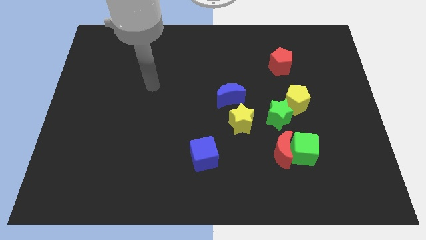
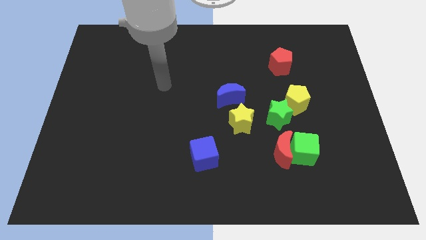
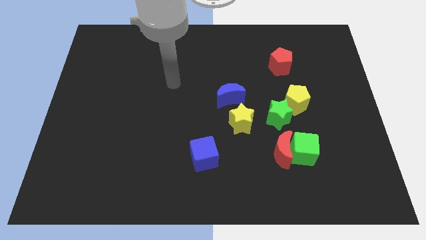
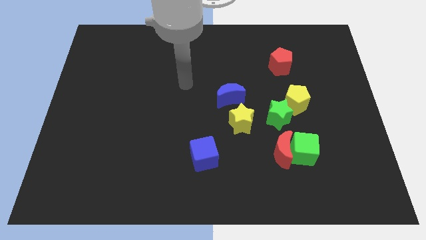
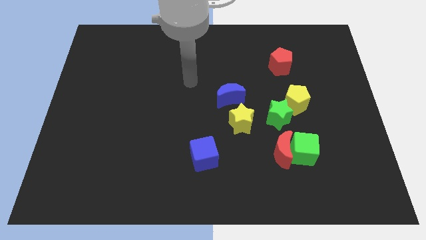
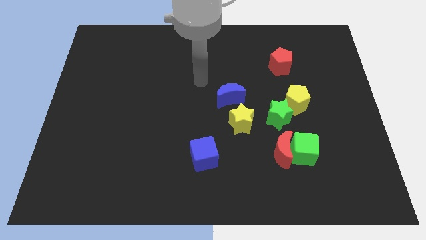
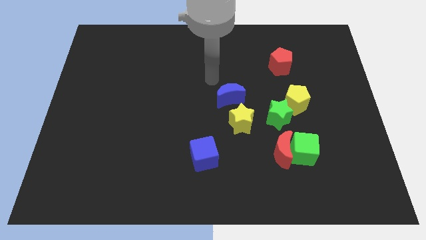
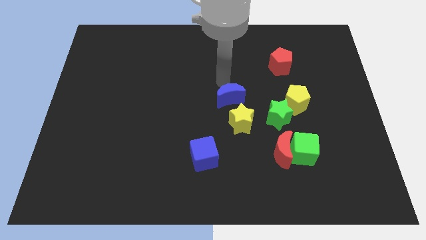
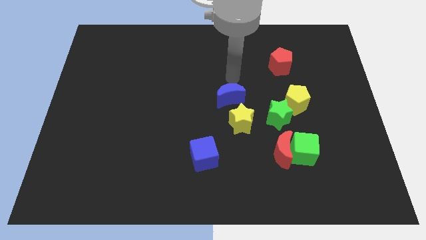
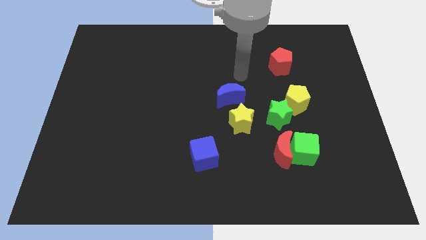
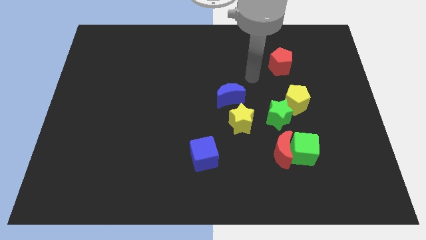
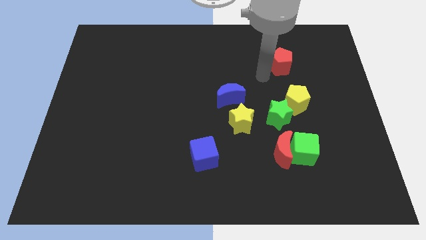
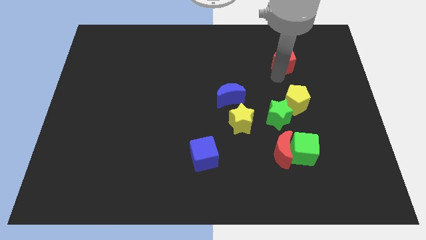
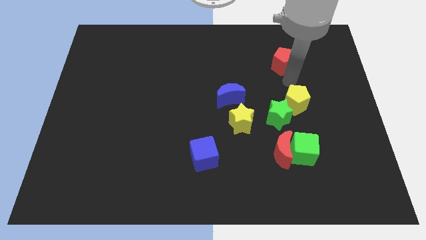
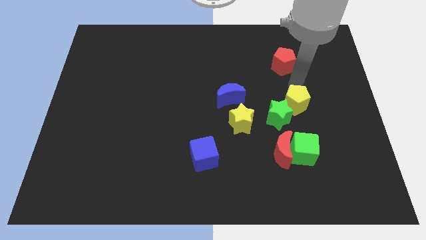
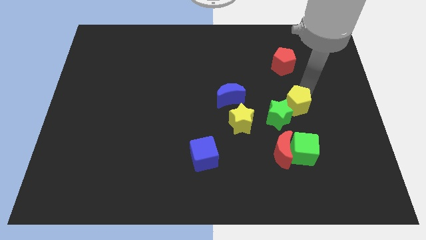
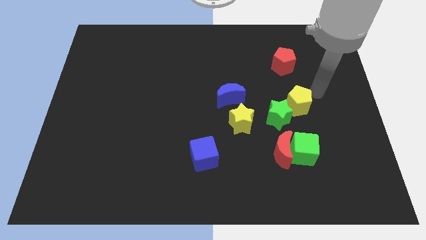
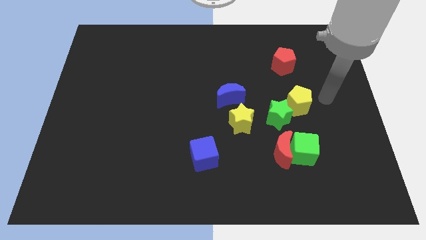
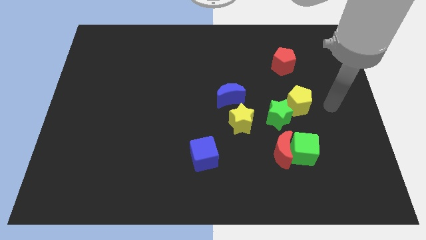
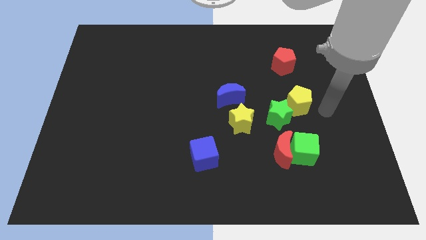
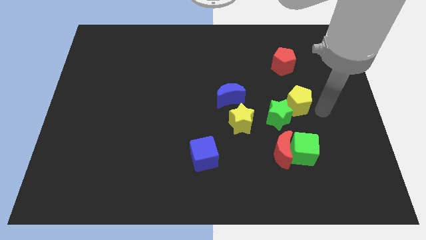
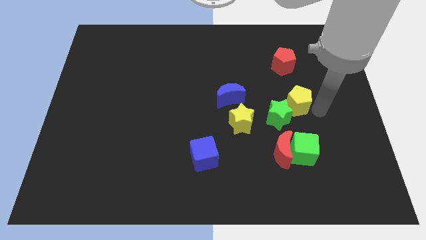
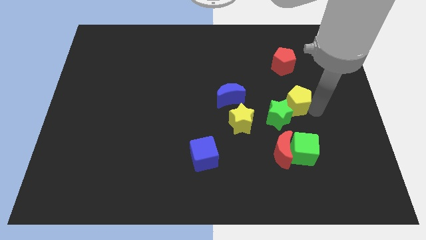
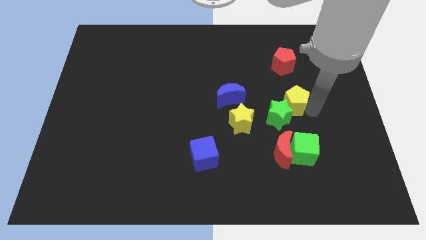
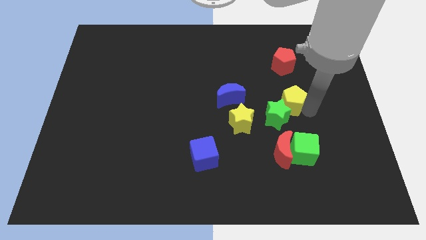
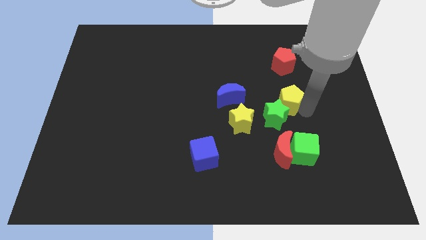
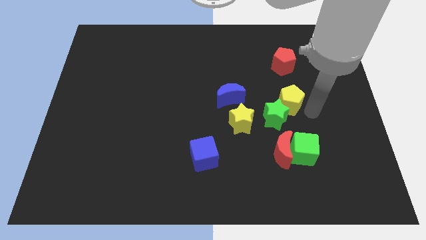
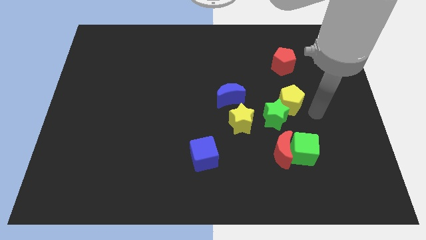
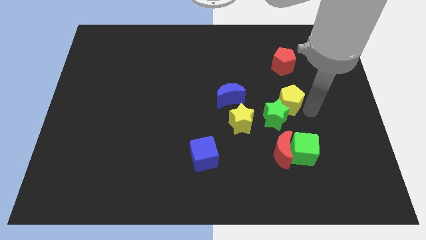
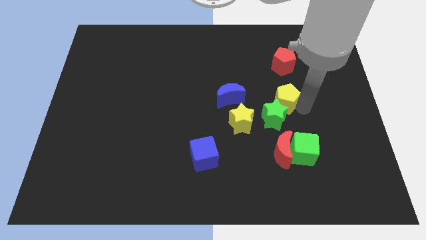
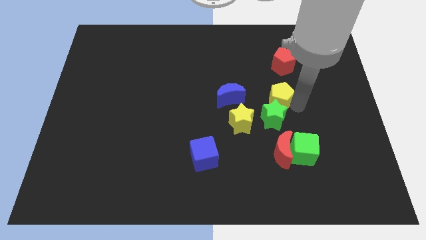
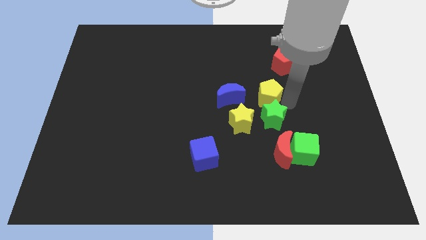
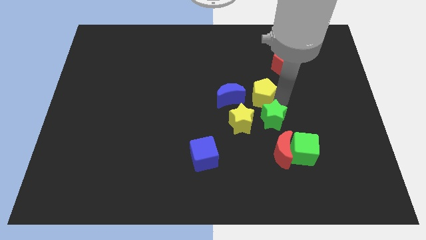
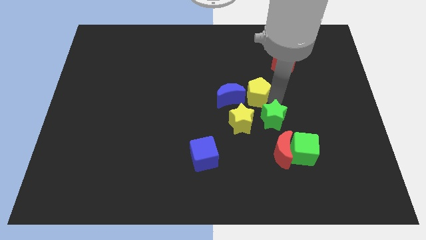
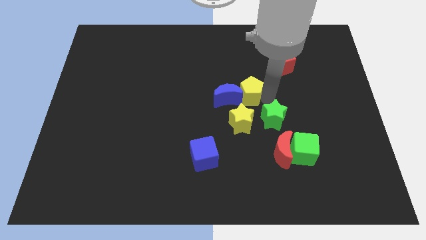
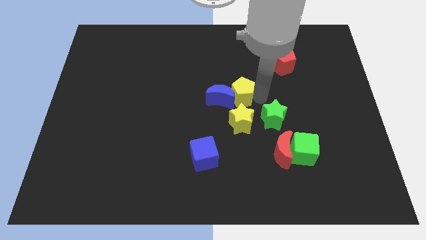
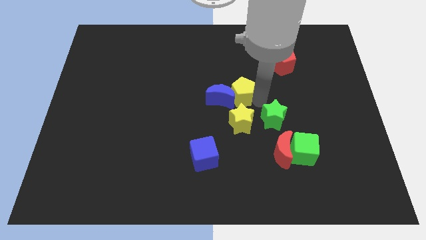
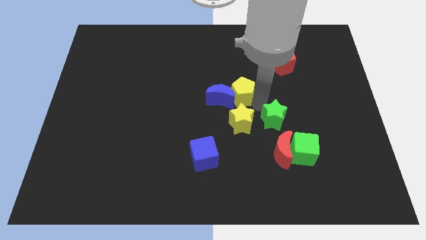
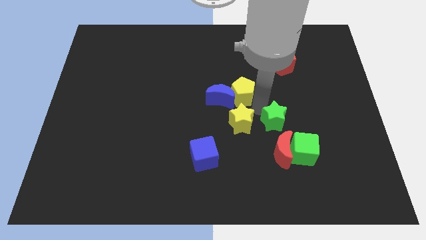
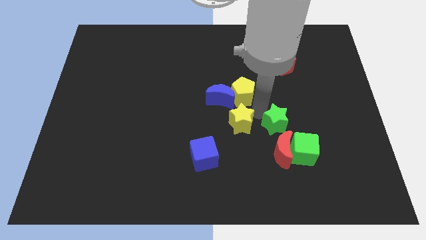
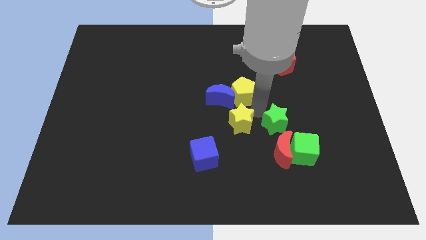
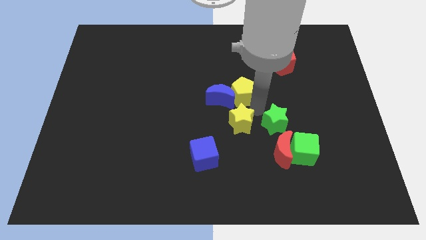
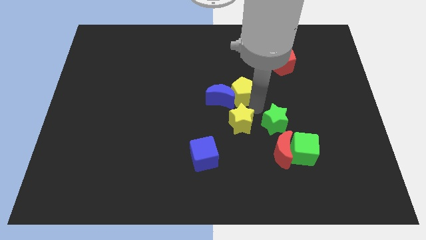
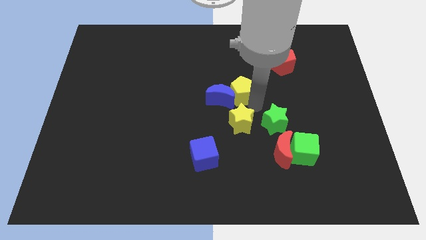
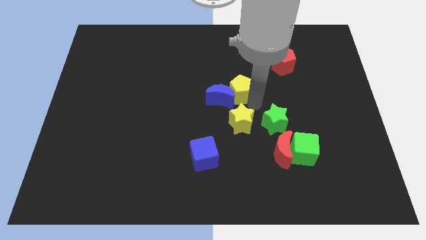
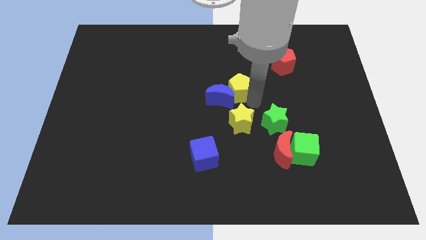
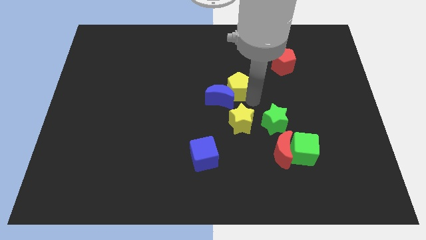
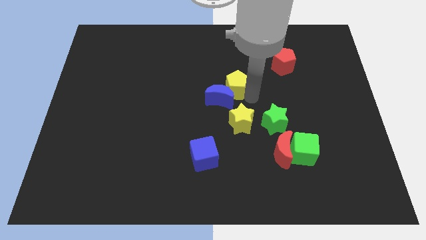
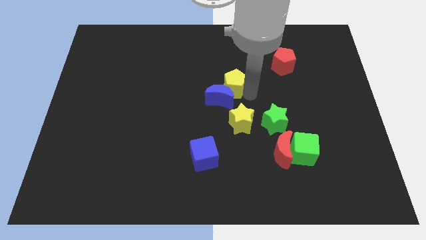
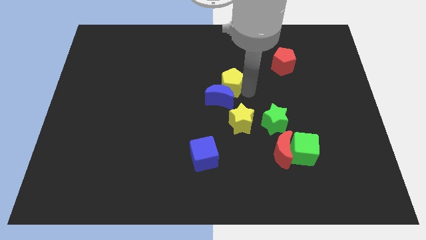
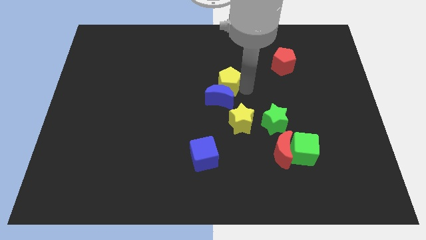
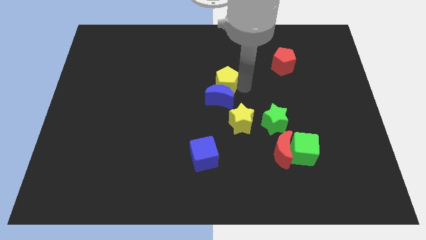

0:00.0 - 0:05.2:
push the yellow pentagon to the top left side of the blue moon

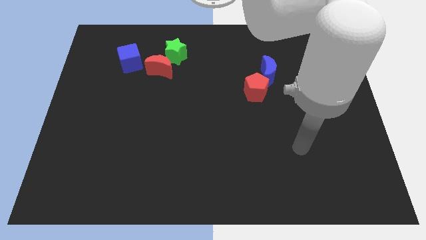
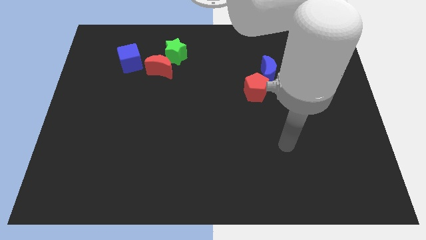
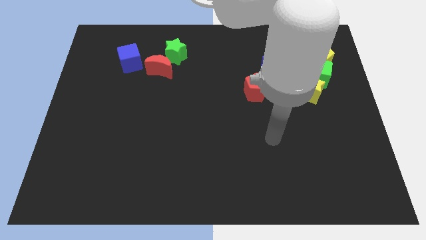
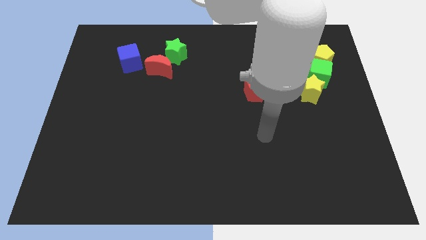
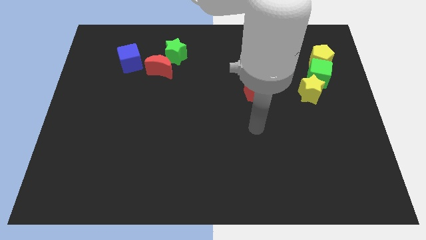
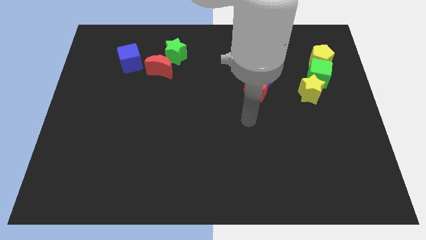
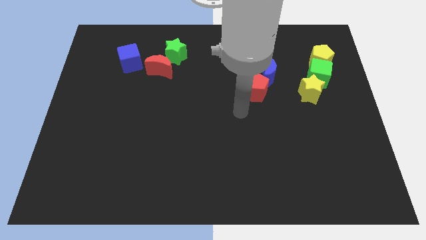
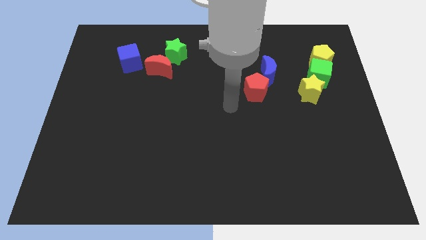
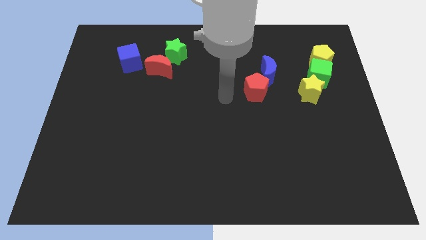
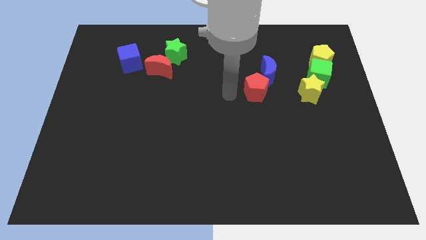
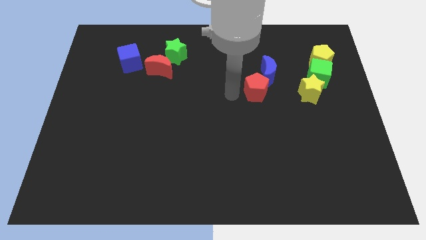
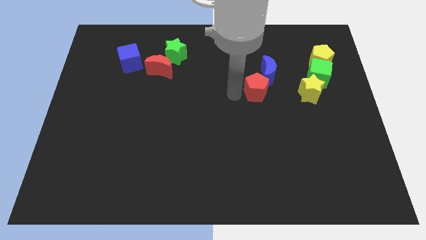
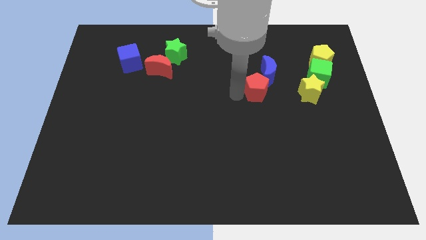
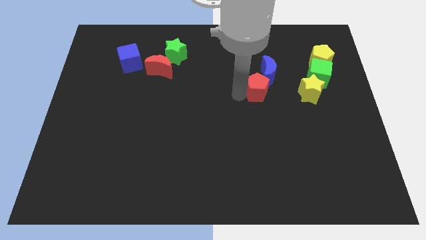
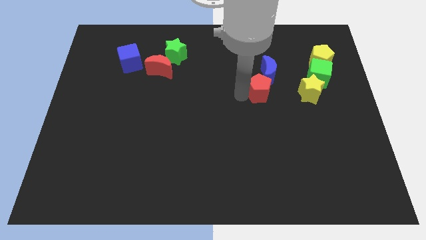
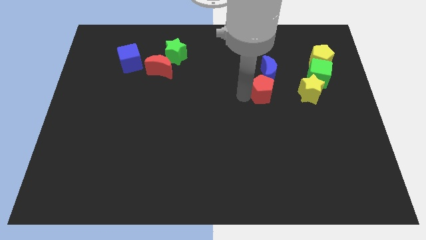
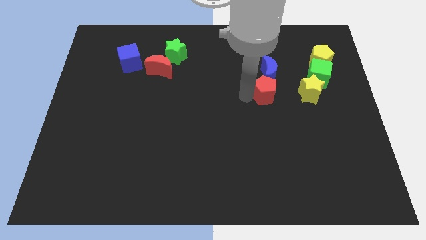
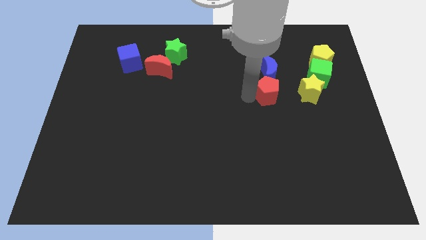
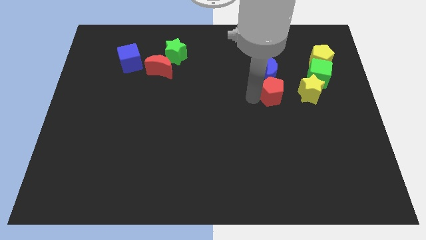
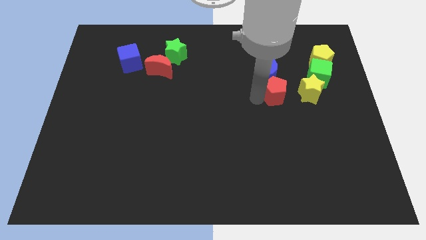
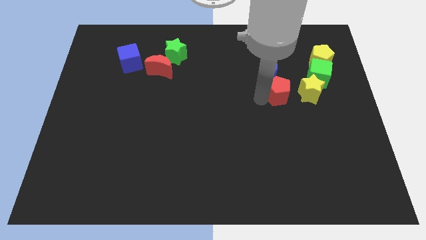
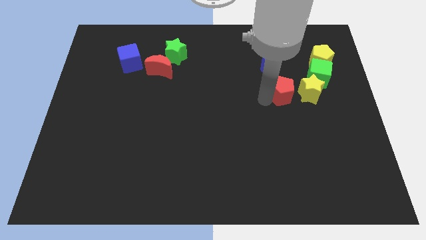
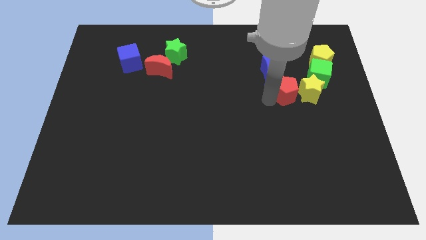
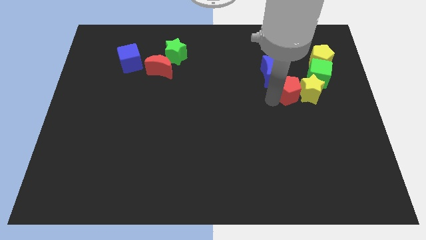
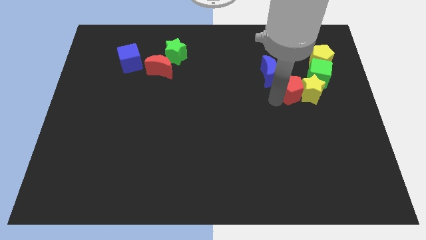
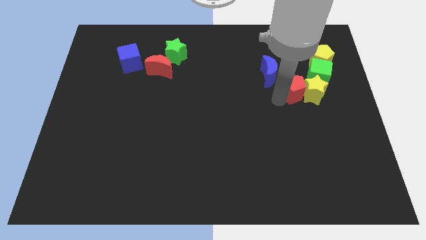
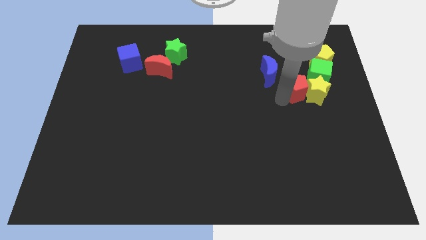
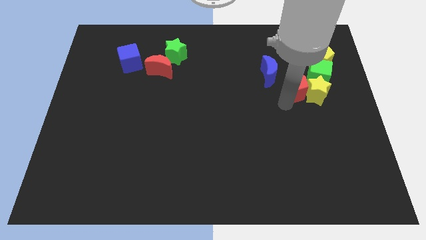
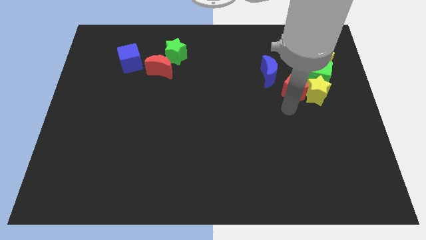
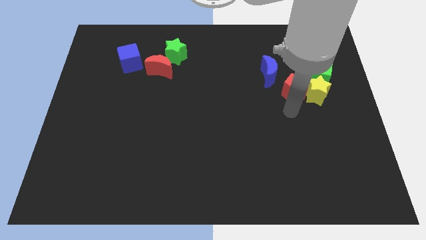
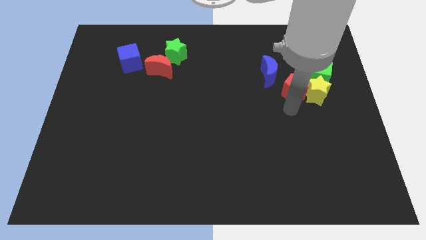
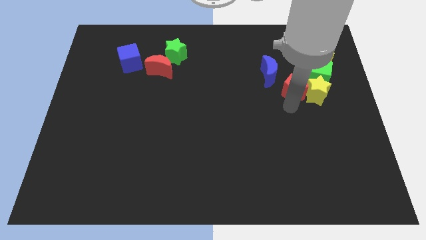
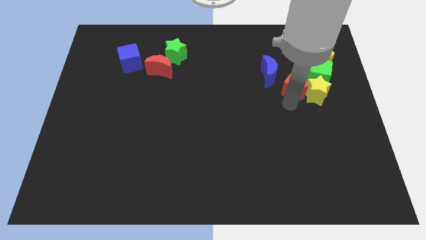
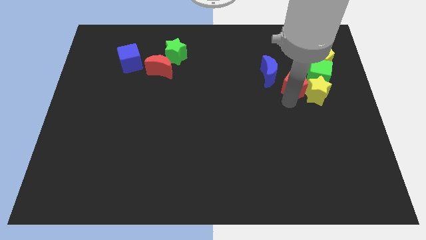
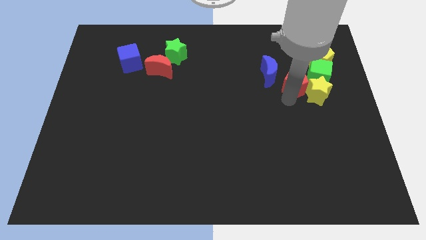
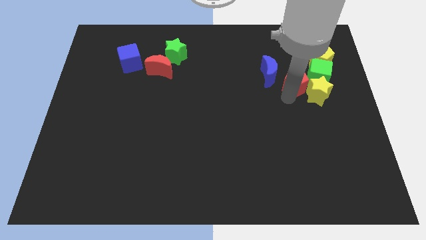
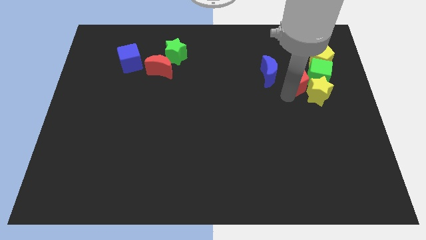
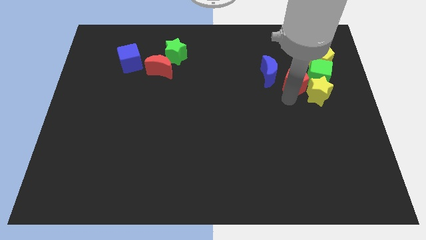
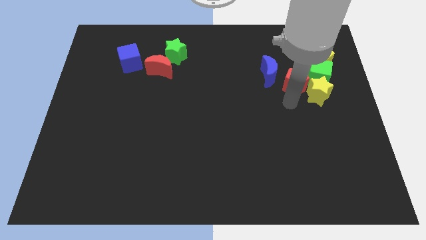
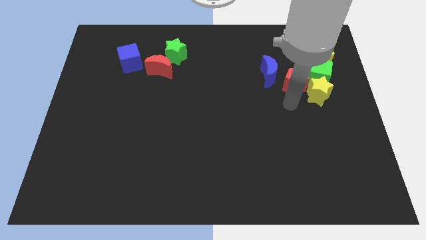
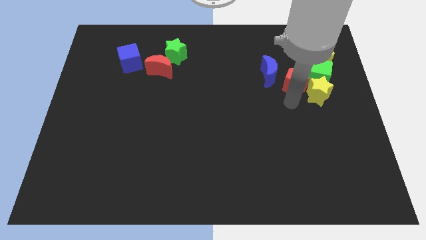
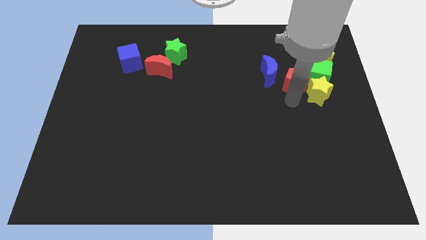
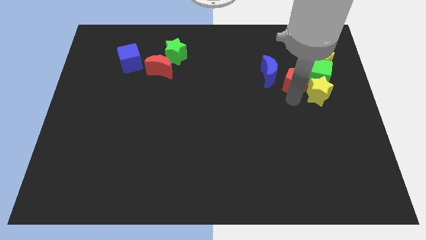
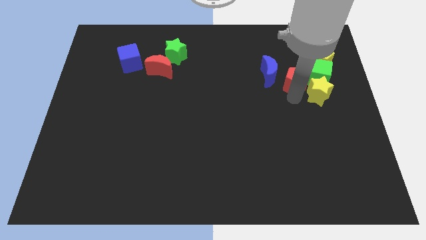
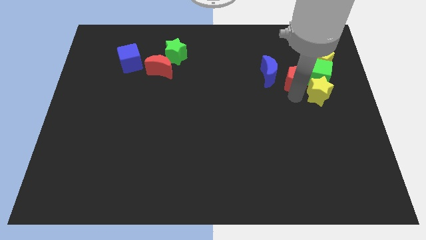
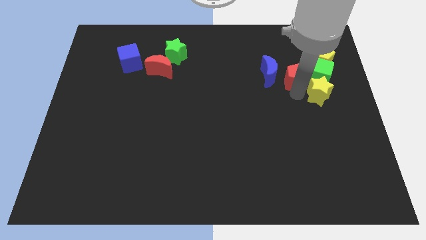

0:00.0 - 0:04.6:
push the red pentagon to the top side of the yellow star
